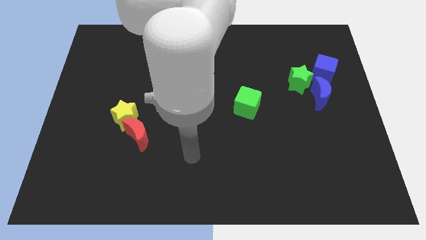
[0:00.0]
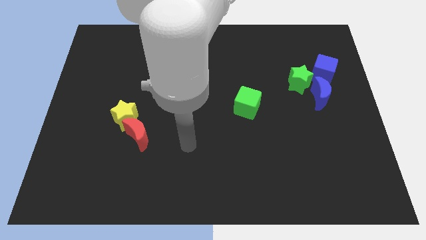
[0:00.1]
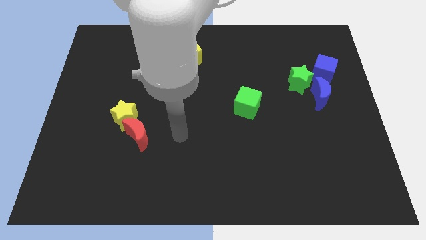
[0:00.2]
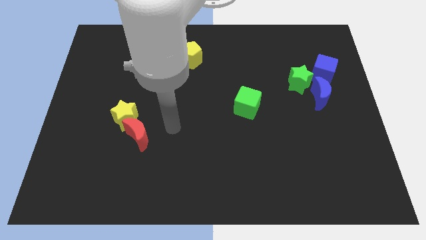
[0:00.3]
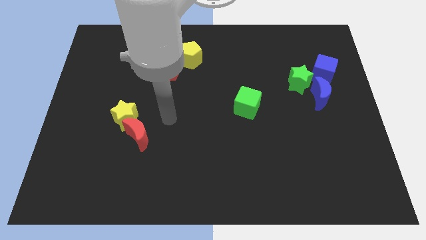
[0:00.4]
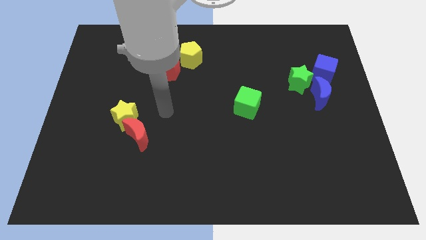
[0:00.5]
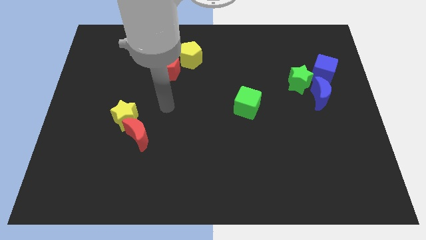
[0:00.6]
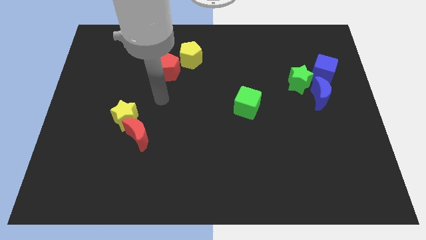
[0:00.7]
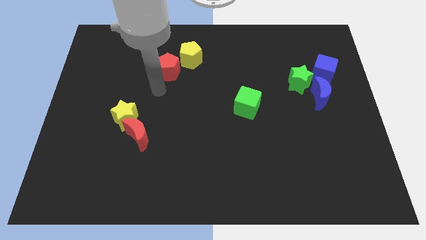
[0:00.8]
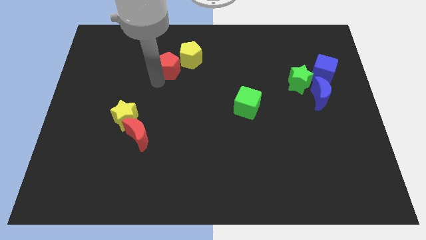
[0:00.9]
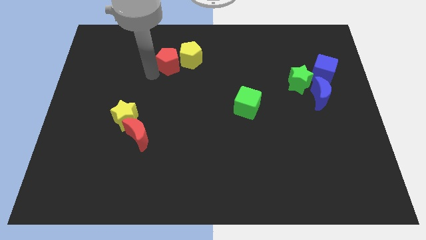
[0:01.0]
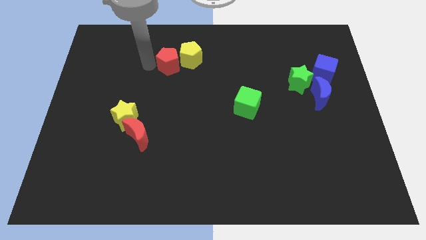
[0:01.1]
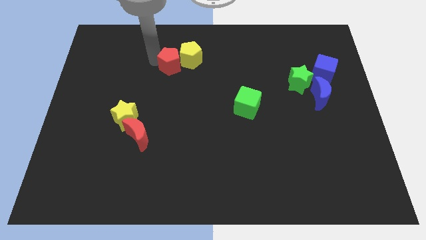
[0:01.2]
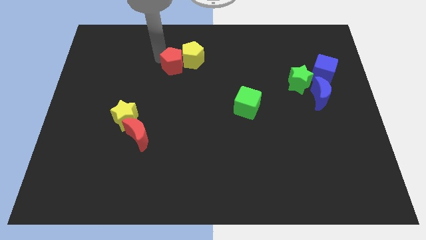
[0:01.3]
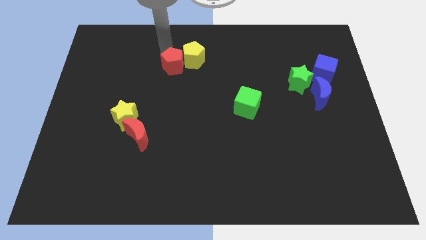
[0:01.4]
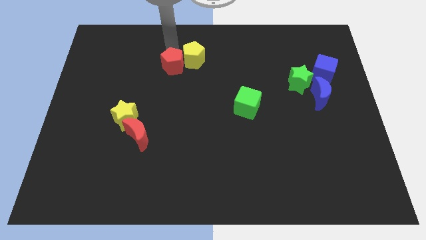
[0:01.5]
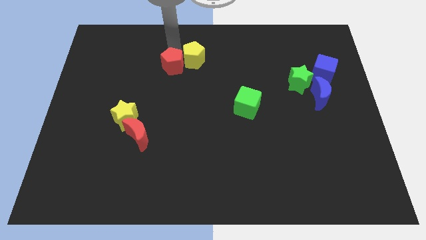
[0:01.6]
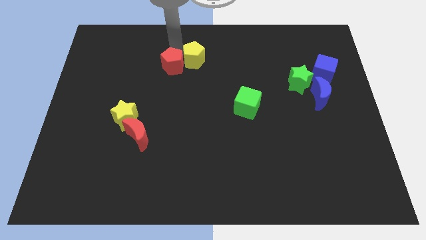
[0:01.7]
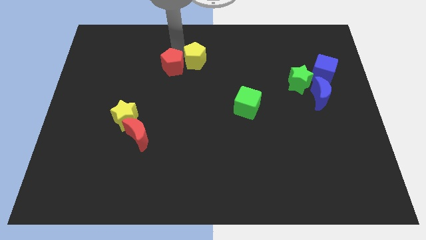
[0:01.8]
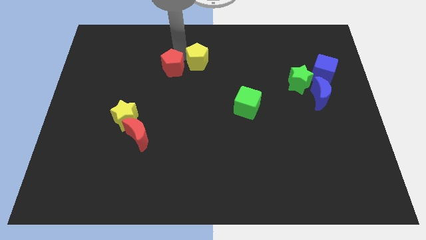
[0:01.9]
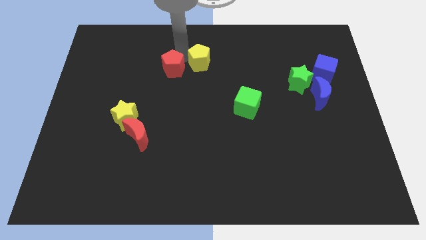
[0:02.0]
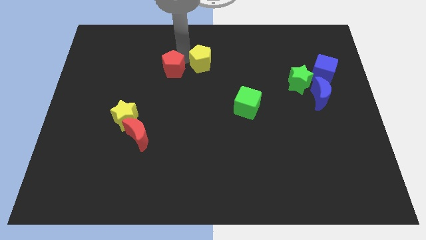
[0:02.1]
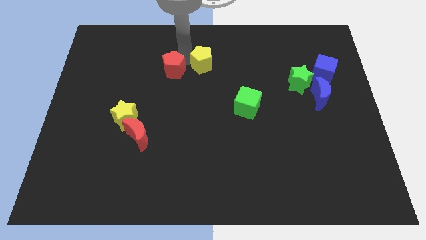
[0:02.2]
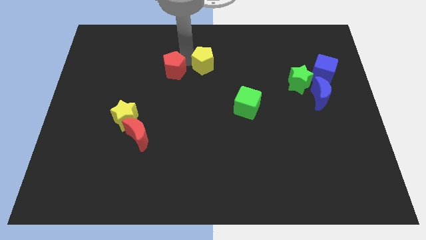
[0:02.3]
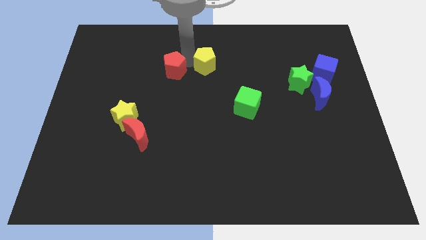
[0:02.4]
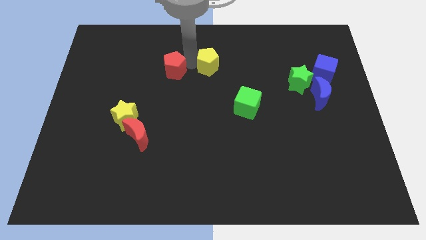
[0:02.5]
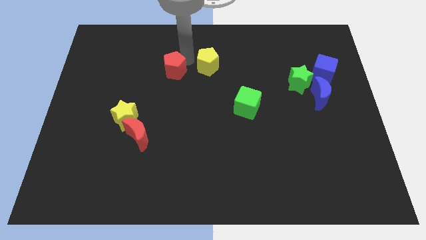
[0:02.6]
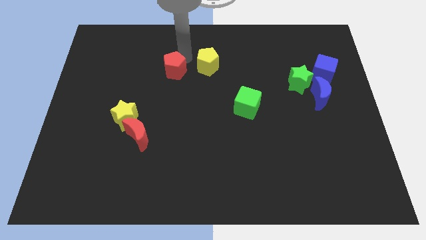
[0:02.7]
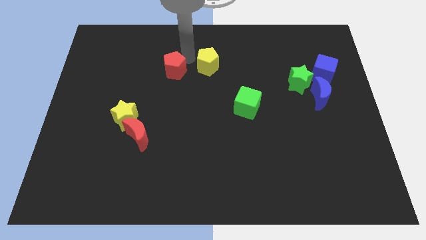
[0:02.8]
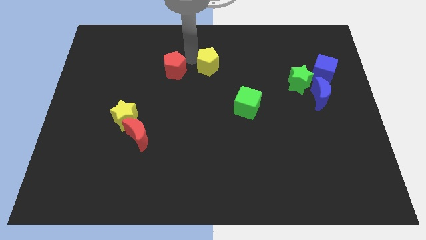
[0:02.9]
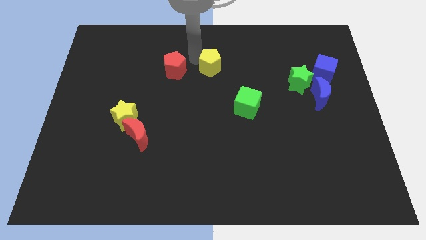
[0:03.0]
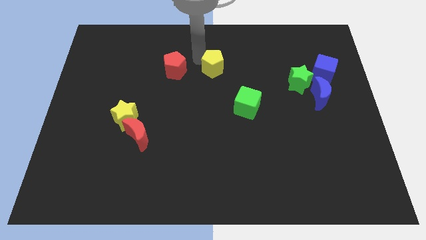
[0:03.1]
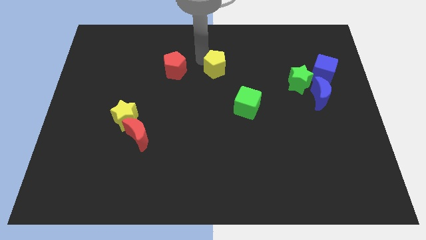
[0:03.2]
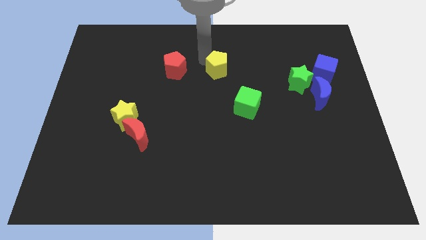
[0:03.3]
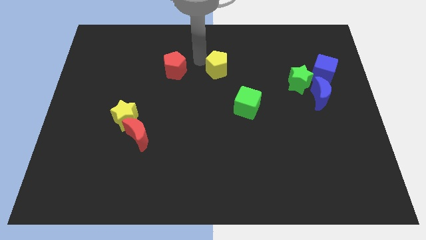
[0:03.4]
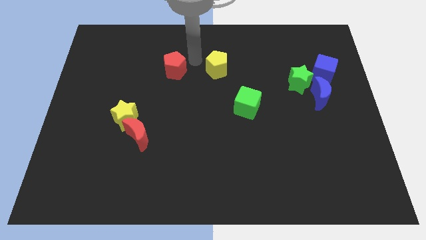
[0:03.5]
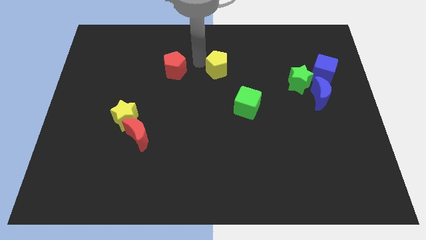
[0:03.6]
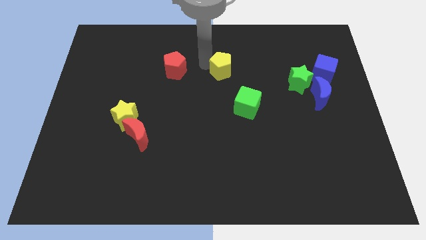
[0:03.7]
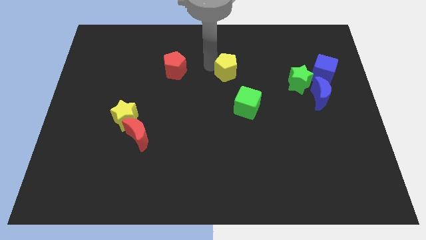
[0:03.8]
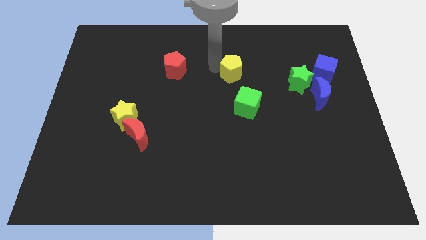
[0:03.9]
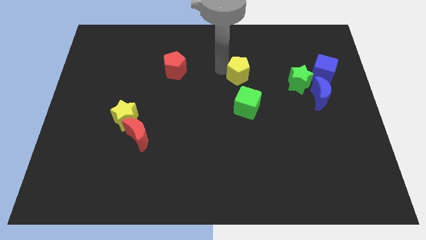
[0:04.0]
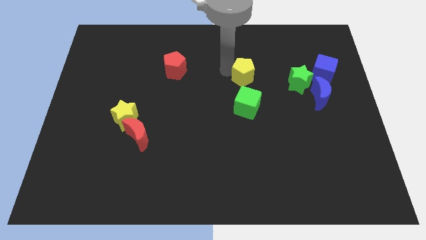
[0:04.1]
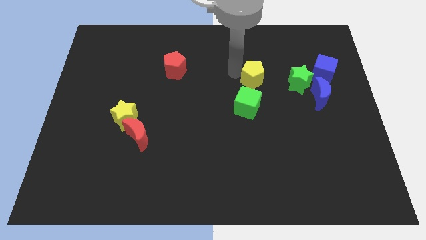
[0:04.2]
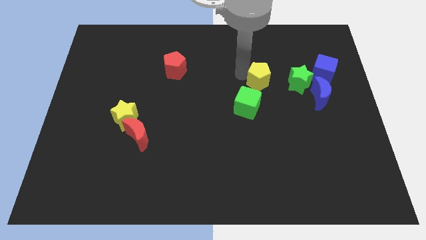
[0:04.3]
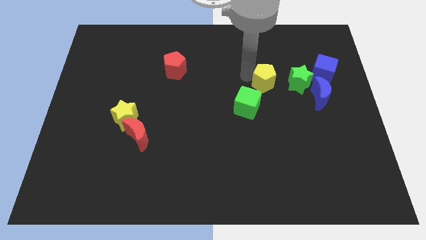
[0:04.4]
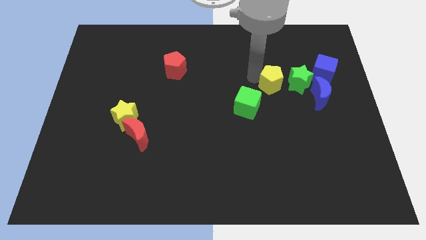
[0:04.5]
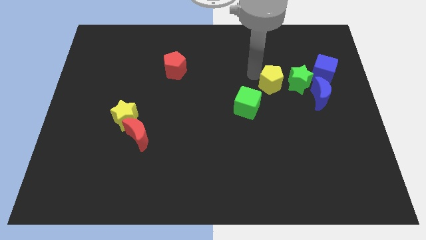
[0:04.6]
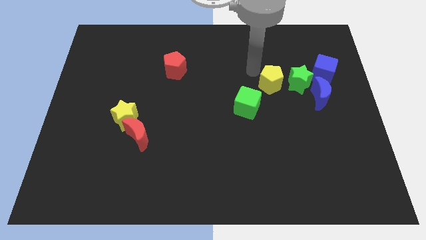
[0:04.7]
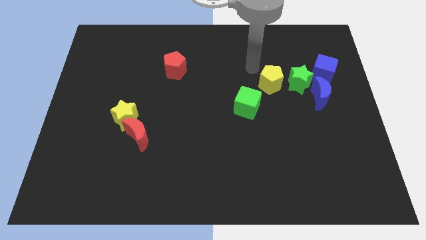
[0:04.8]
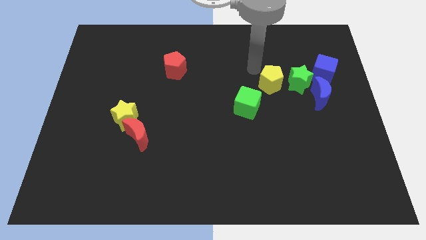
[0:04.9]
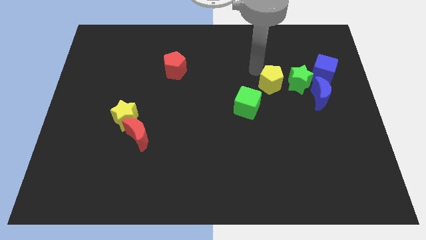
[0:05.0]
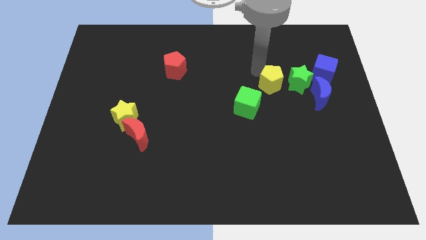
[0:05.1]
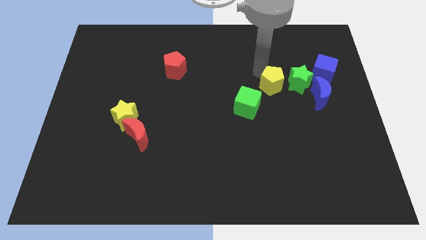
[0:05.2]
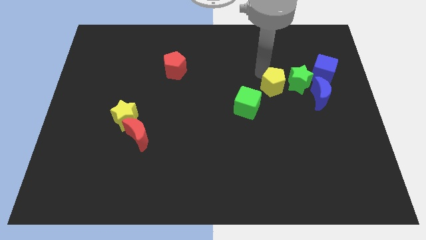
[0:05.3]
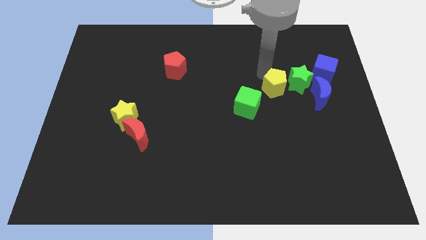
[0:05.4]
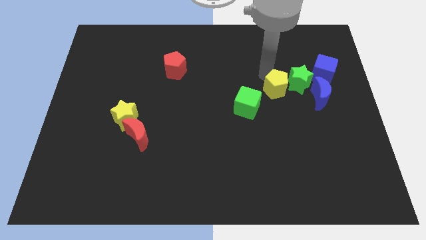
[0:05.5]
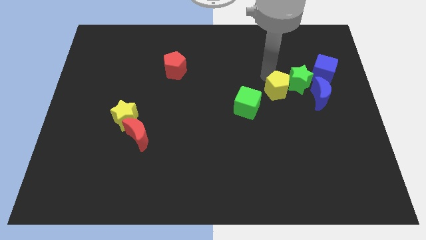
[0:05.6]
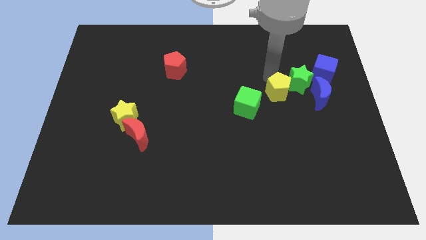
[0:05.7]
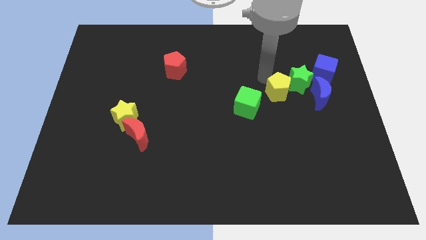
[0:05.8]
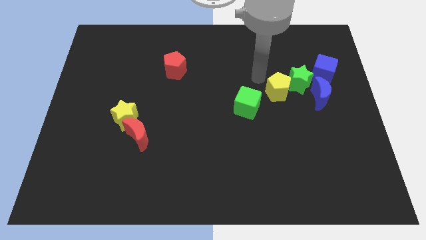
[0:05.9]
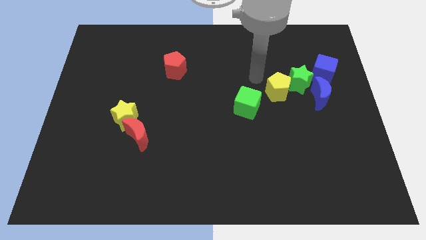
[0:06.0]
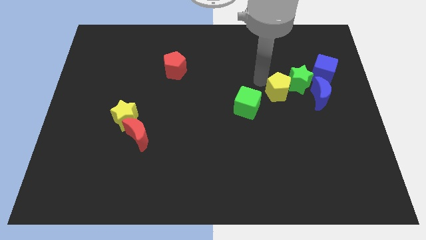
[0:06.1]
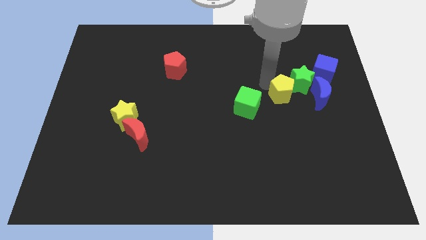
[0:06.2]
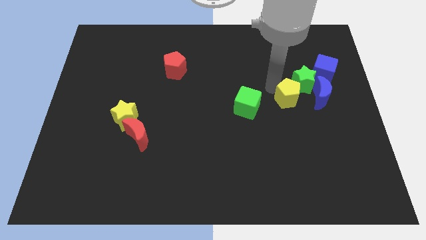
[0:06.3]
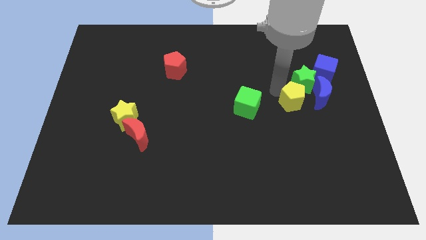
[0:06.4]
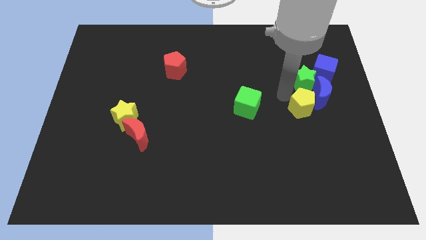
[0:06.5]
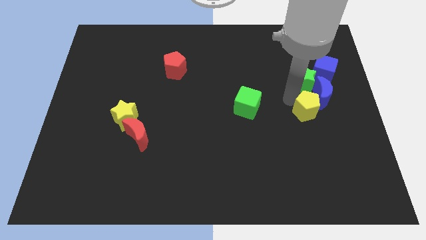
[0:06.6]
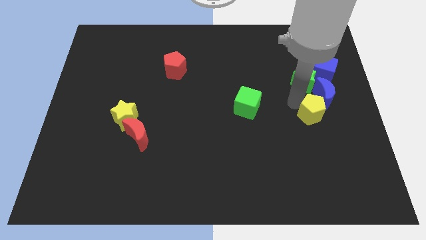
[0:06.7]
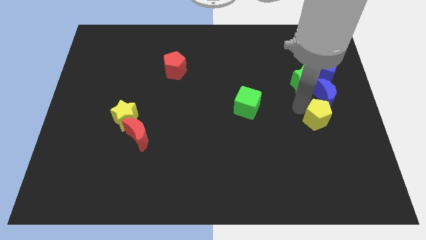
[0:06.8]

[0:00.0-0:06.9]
move the yellow pentagon below the blue cube

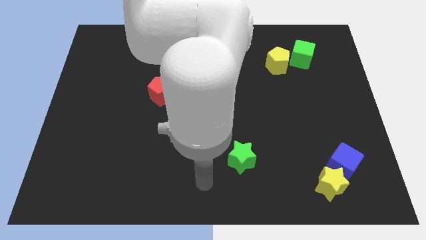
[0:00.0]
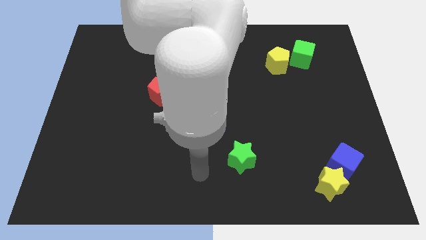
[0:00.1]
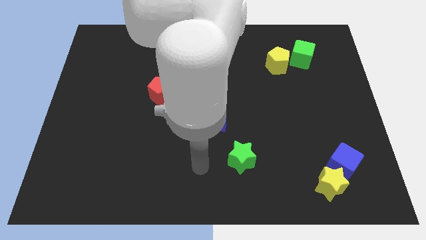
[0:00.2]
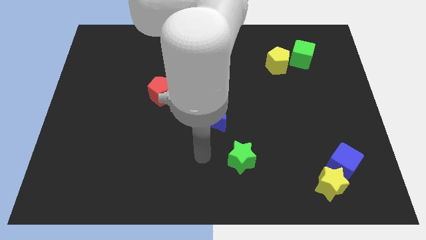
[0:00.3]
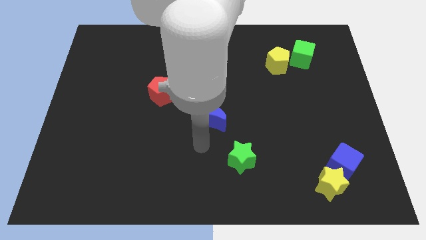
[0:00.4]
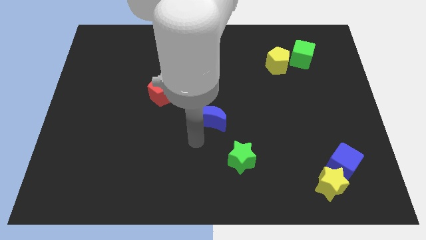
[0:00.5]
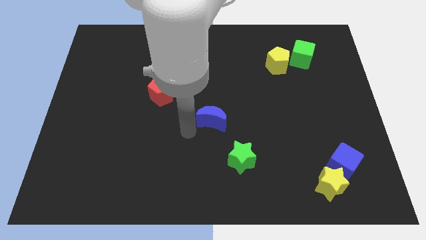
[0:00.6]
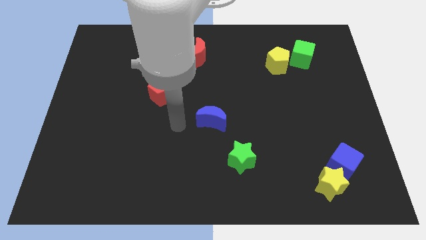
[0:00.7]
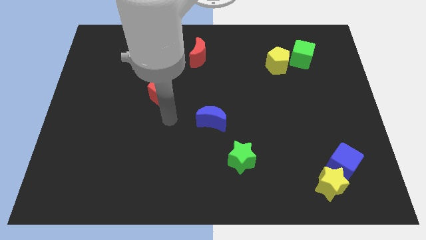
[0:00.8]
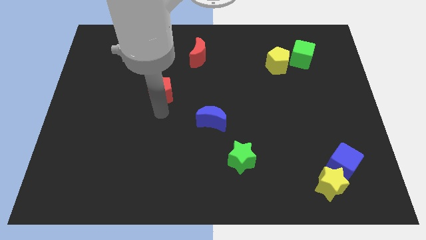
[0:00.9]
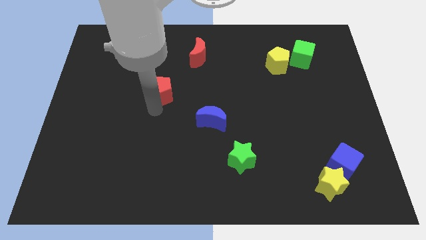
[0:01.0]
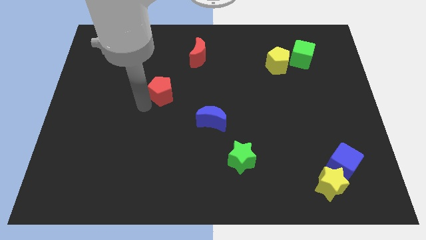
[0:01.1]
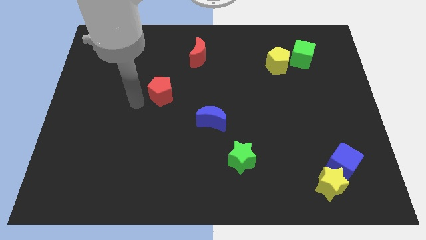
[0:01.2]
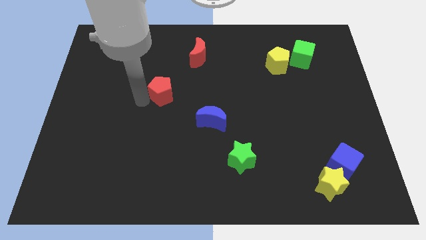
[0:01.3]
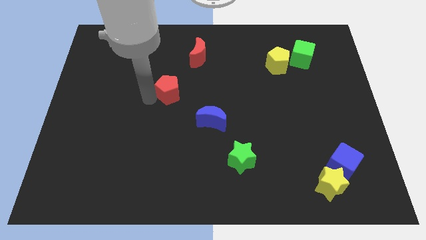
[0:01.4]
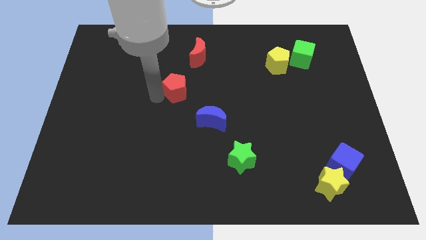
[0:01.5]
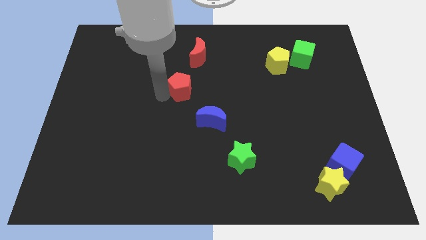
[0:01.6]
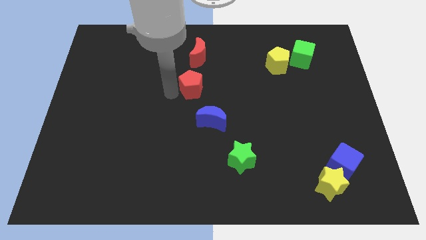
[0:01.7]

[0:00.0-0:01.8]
move the red pentagon above the blue moon
